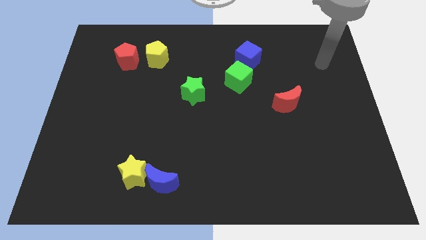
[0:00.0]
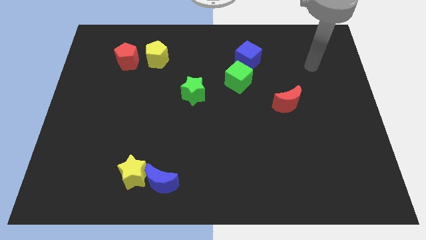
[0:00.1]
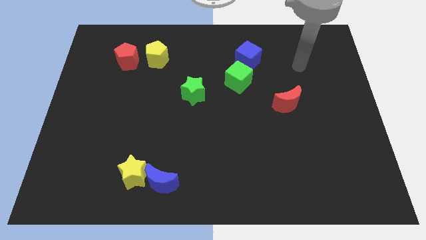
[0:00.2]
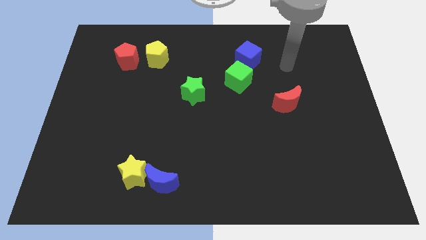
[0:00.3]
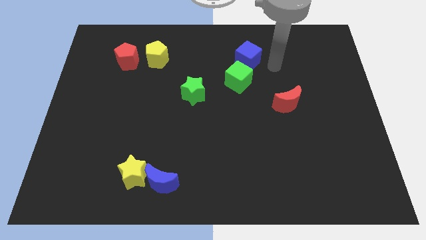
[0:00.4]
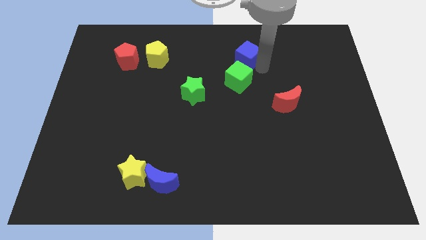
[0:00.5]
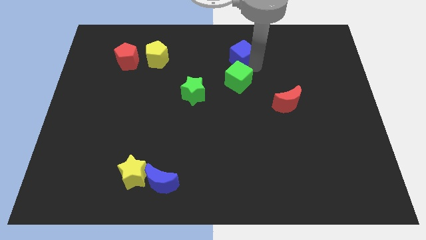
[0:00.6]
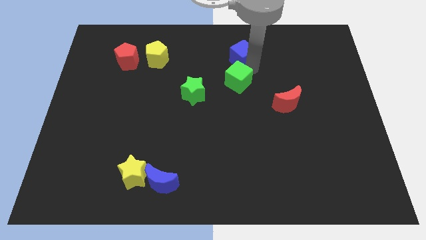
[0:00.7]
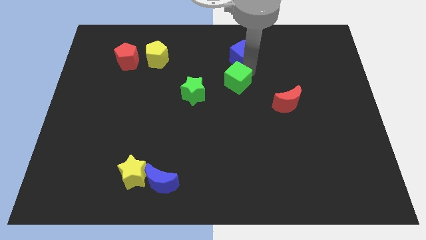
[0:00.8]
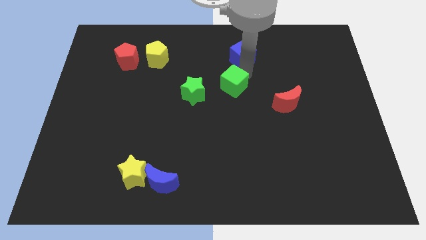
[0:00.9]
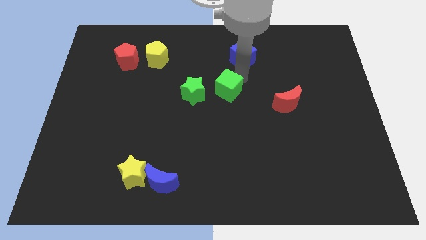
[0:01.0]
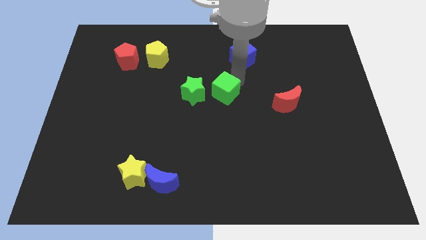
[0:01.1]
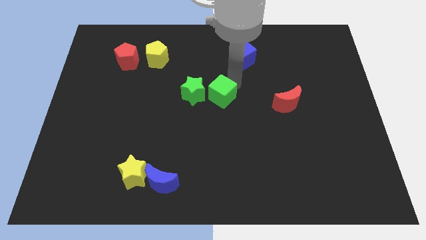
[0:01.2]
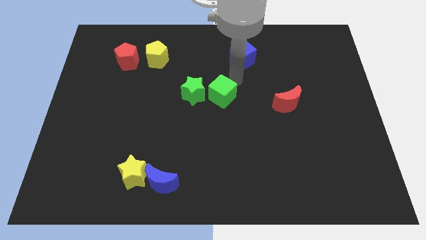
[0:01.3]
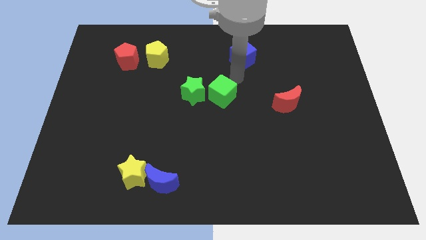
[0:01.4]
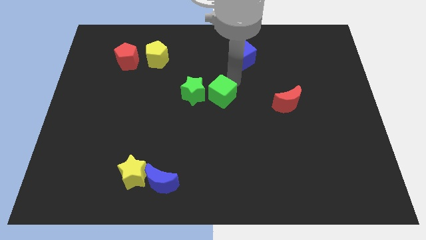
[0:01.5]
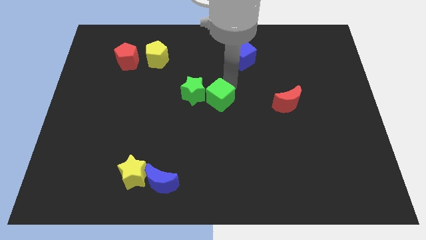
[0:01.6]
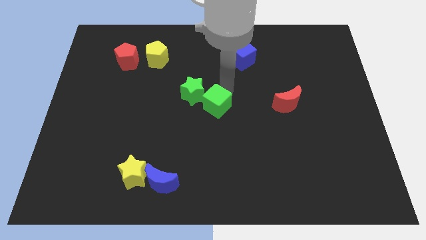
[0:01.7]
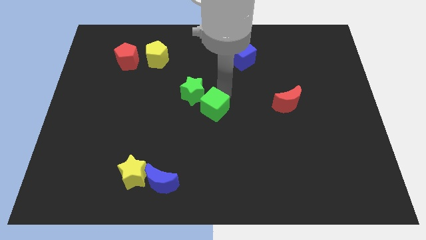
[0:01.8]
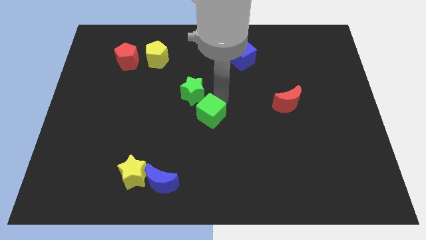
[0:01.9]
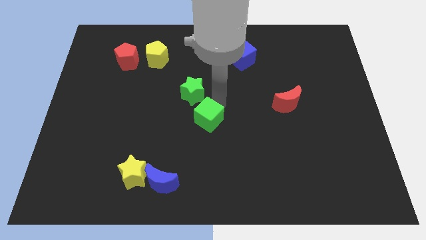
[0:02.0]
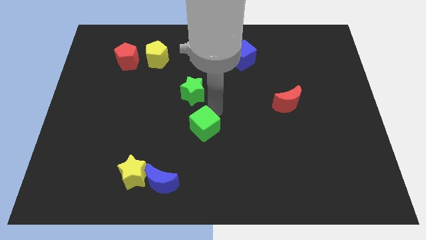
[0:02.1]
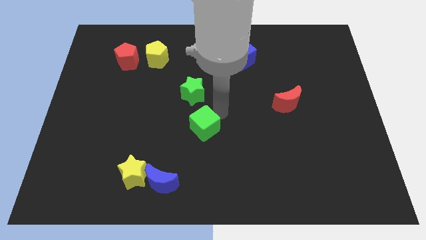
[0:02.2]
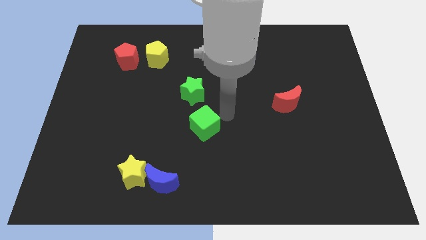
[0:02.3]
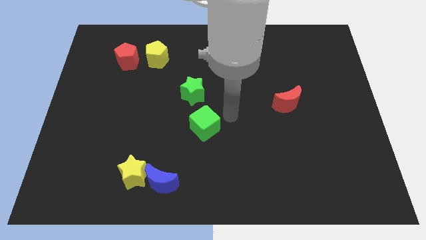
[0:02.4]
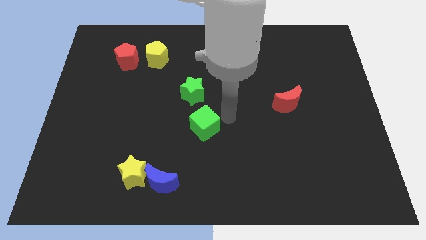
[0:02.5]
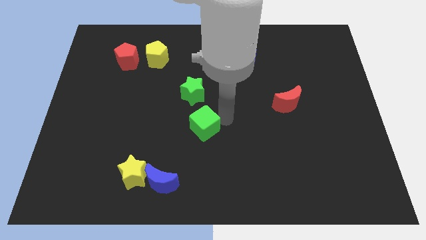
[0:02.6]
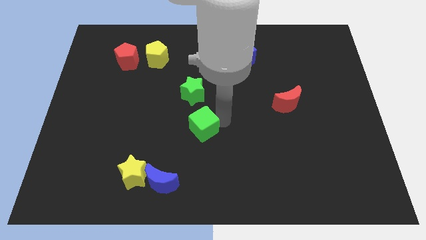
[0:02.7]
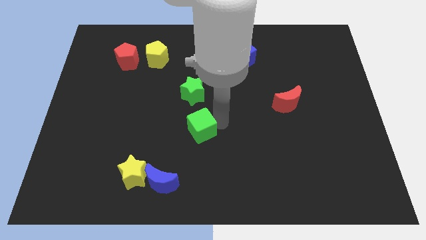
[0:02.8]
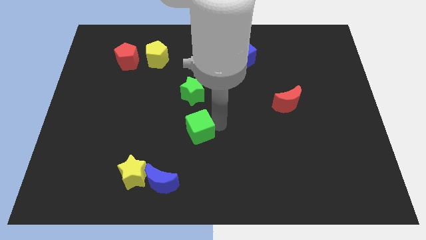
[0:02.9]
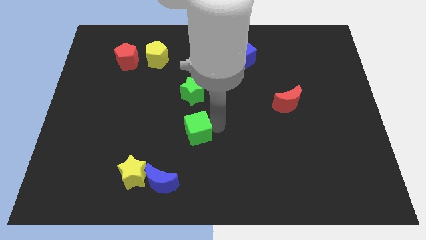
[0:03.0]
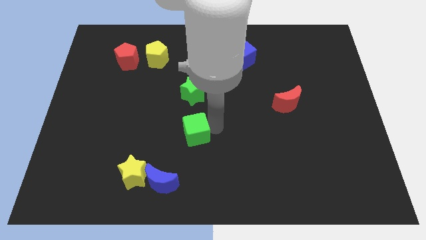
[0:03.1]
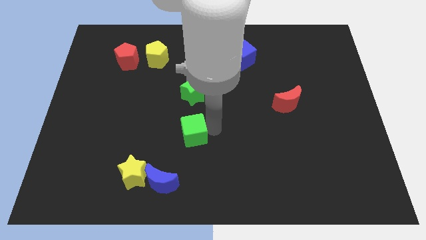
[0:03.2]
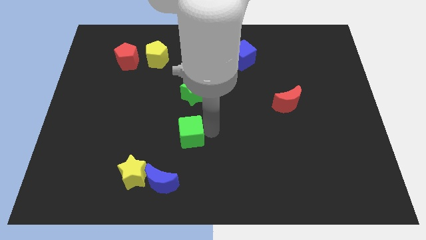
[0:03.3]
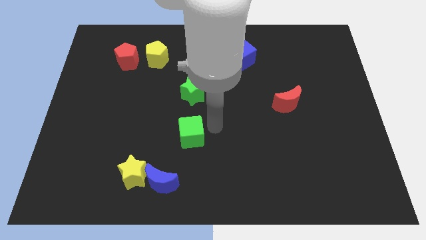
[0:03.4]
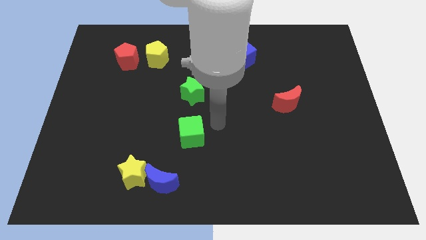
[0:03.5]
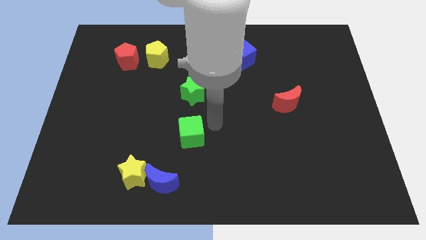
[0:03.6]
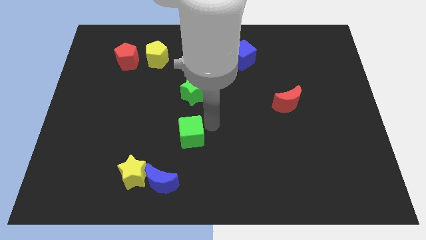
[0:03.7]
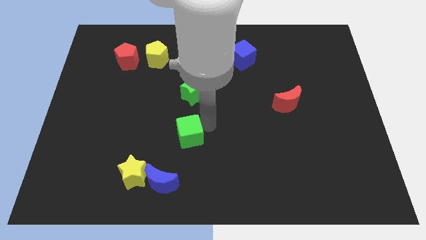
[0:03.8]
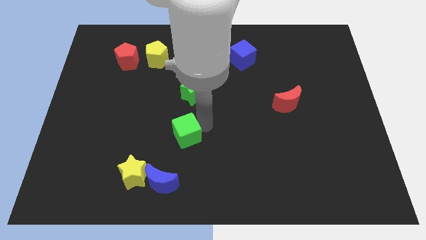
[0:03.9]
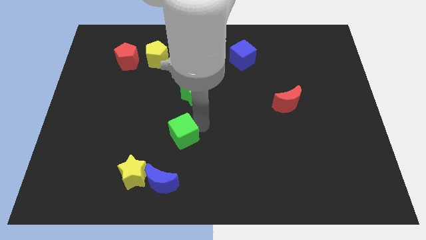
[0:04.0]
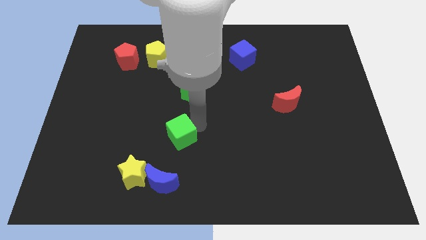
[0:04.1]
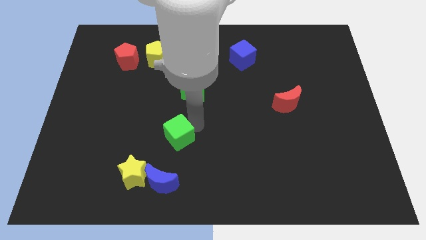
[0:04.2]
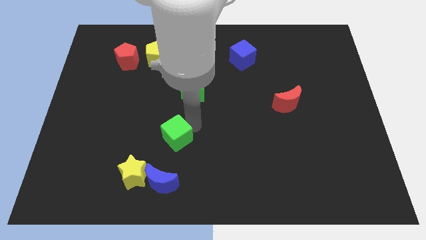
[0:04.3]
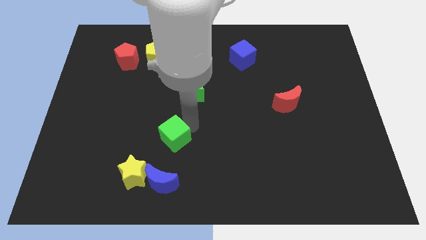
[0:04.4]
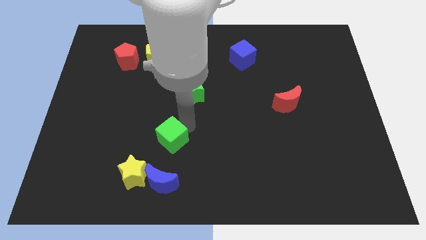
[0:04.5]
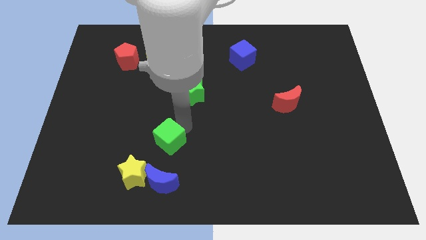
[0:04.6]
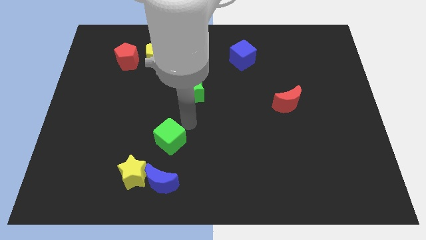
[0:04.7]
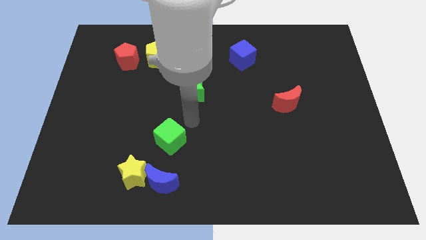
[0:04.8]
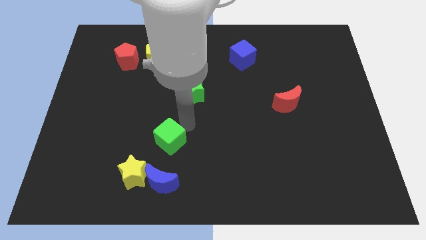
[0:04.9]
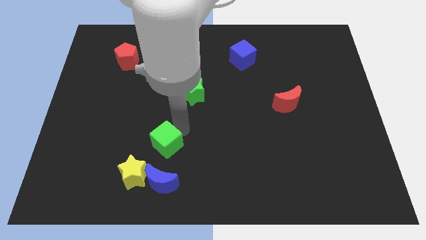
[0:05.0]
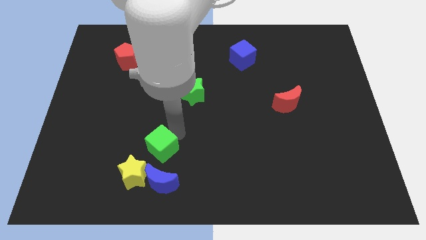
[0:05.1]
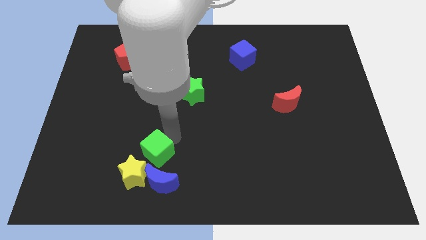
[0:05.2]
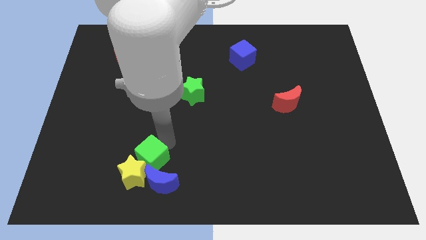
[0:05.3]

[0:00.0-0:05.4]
slide the green cube next to the yellow star

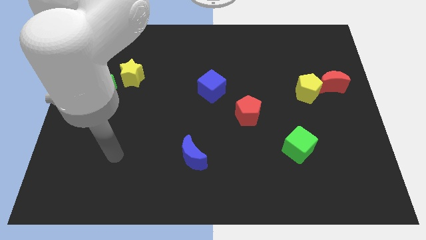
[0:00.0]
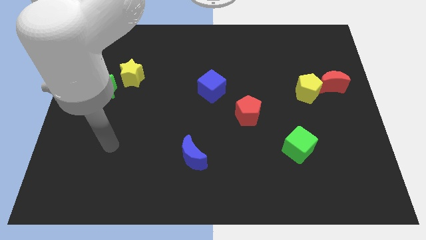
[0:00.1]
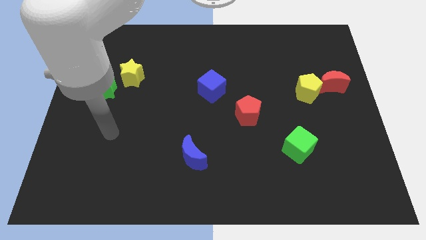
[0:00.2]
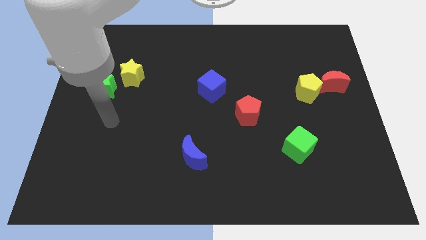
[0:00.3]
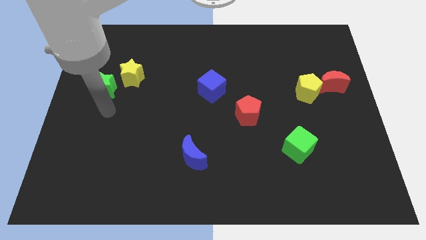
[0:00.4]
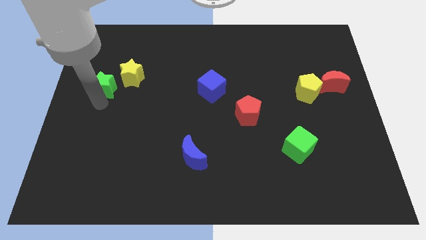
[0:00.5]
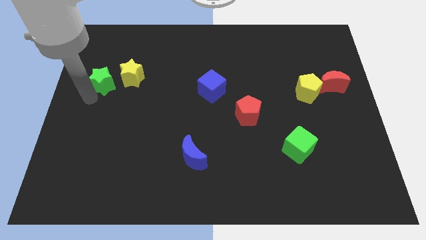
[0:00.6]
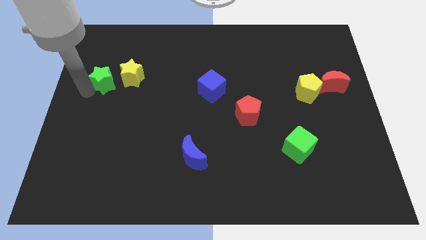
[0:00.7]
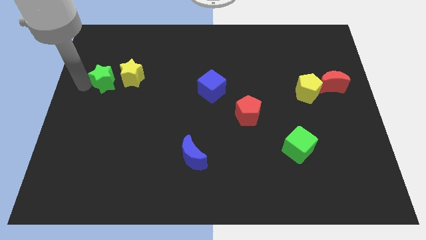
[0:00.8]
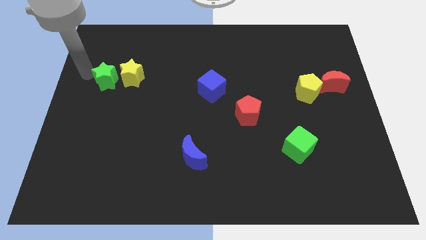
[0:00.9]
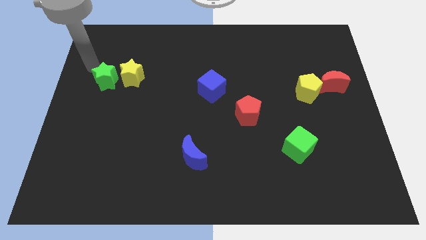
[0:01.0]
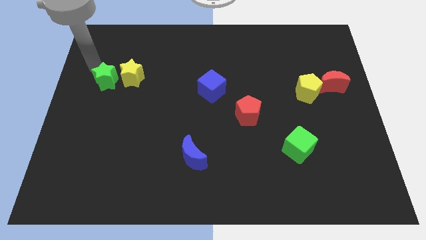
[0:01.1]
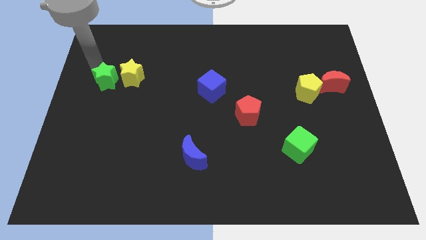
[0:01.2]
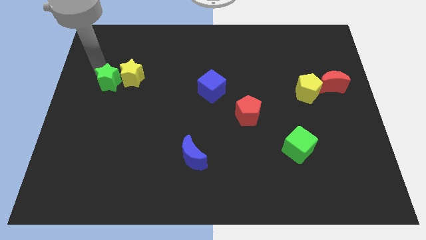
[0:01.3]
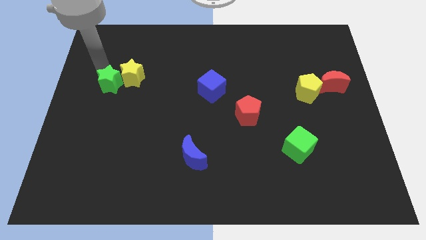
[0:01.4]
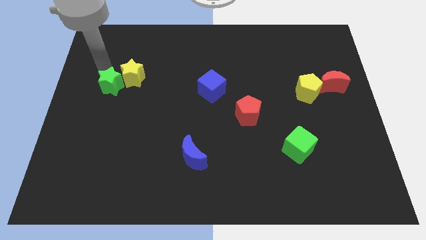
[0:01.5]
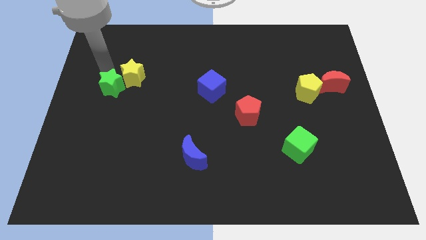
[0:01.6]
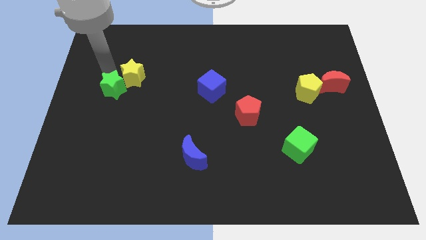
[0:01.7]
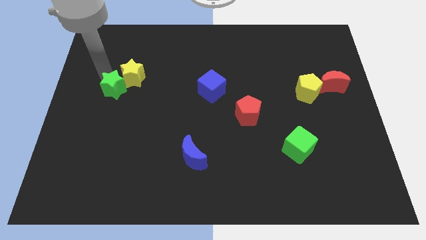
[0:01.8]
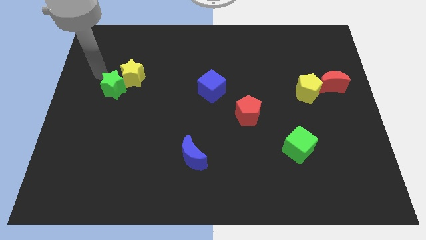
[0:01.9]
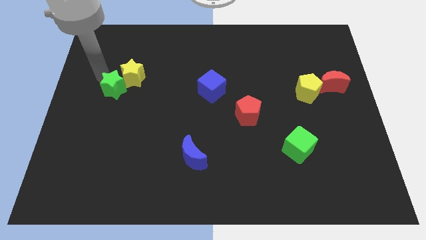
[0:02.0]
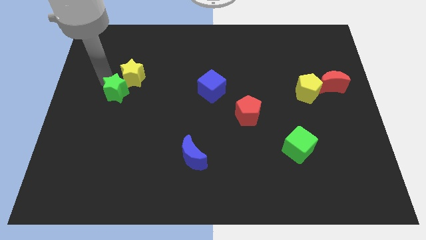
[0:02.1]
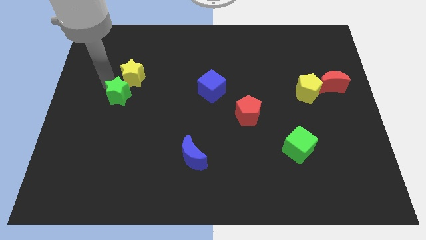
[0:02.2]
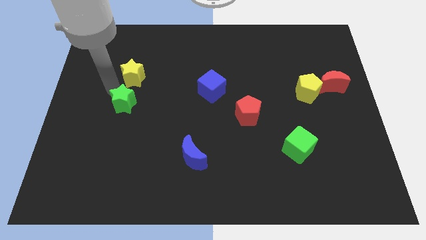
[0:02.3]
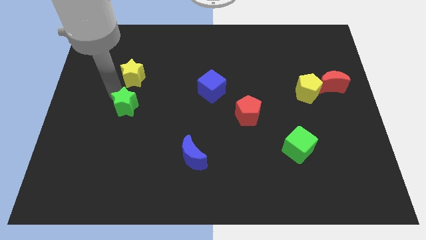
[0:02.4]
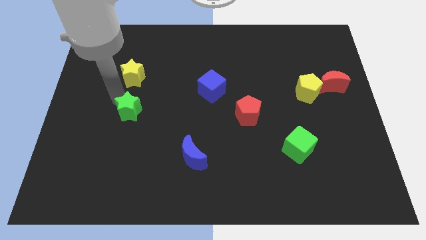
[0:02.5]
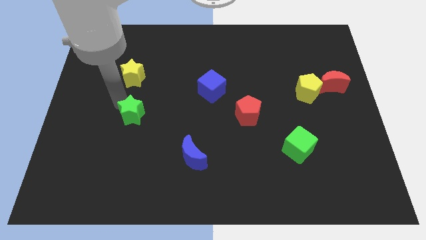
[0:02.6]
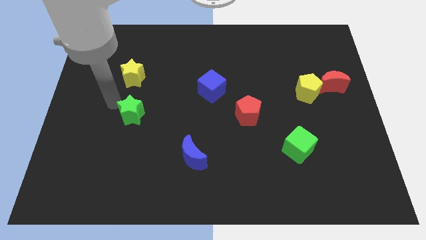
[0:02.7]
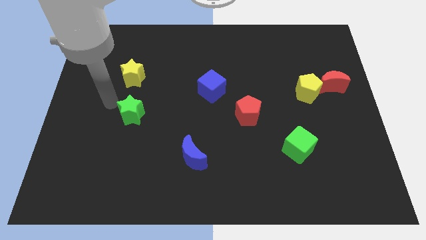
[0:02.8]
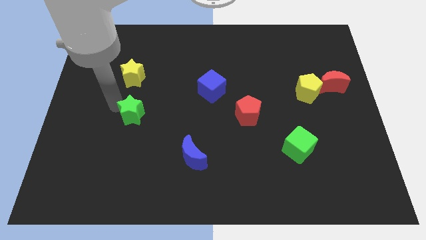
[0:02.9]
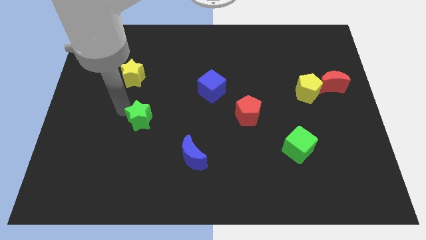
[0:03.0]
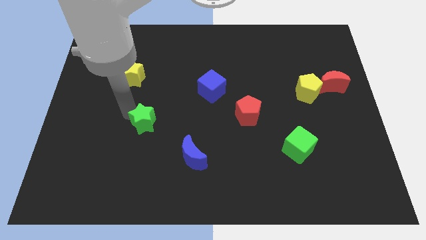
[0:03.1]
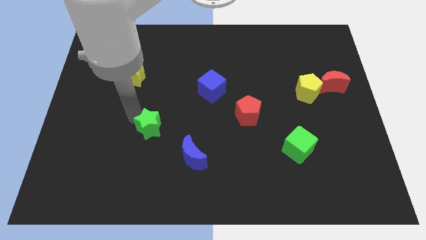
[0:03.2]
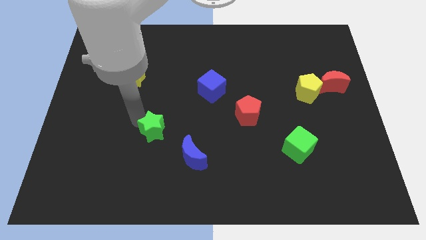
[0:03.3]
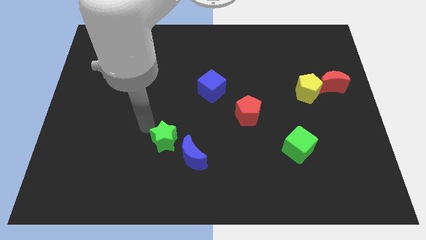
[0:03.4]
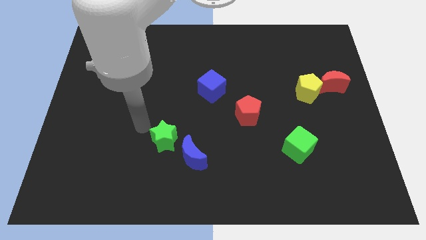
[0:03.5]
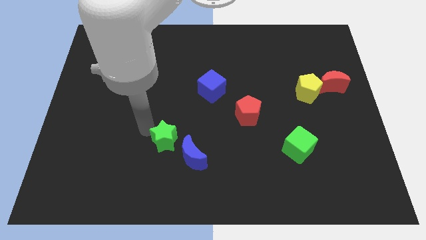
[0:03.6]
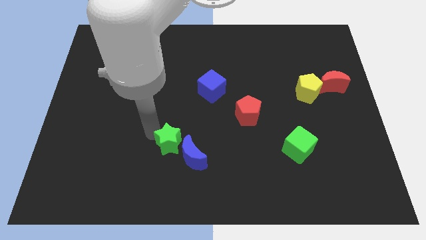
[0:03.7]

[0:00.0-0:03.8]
push the green star next to the blue moon
